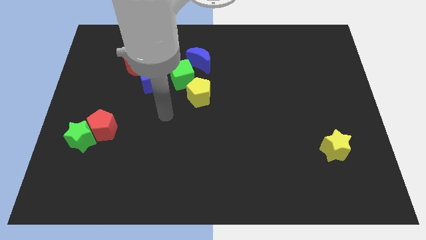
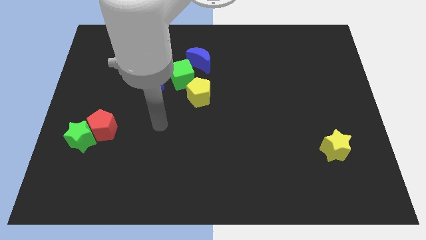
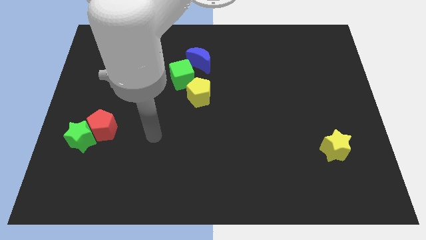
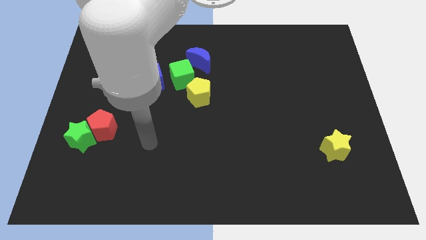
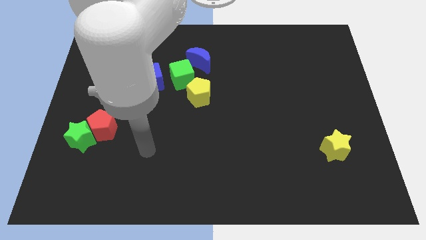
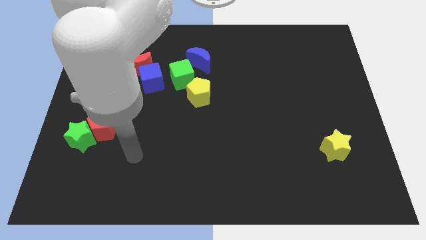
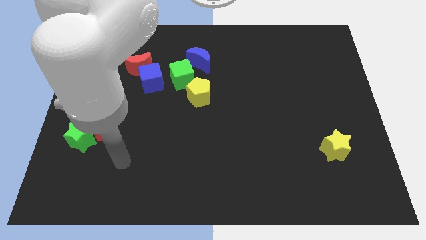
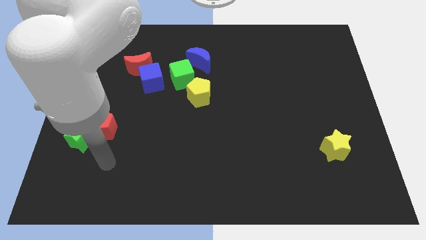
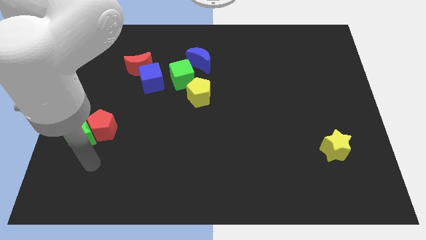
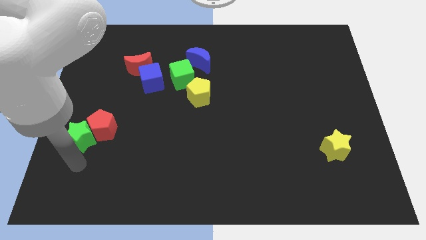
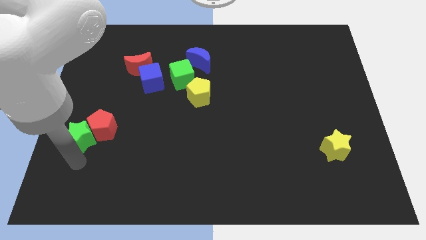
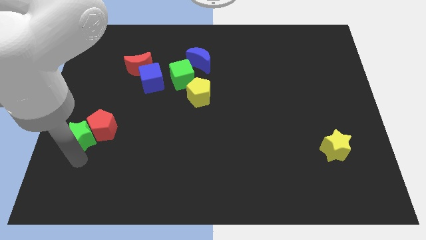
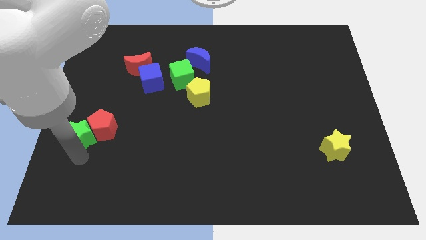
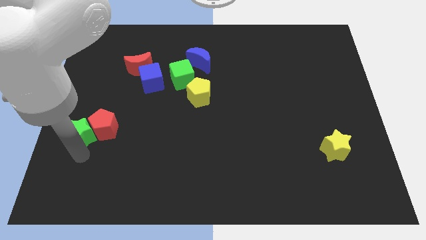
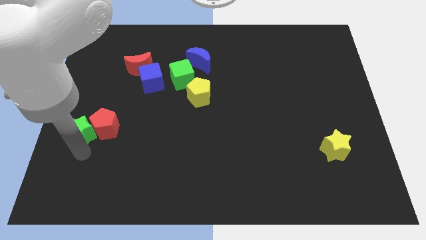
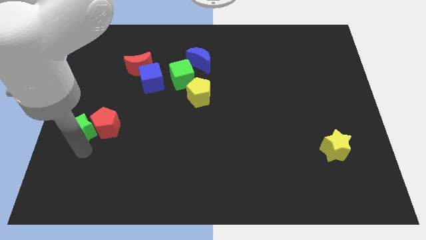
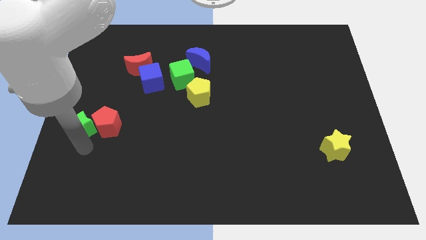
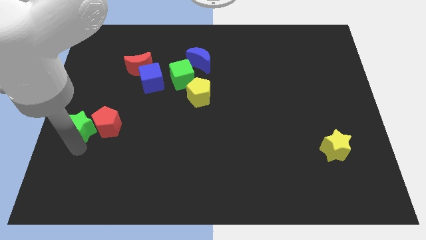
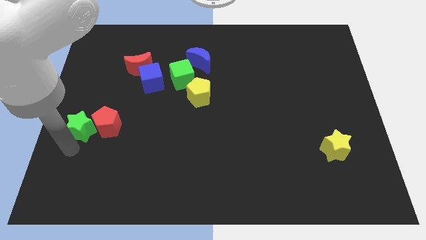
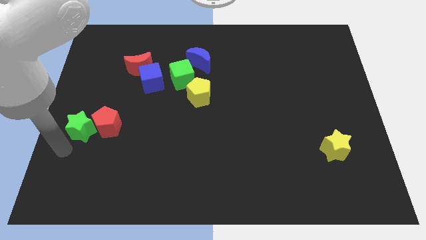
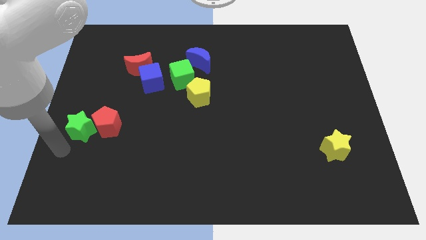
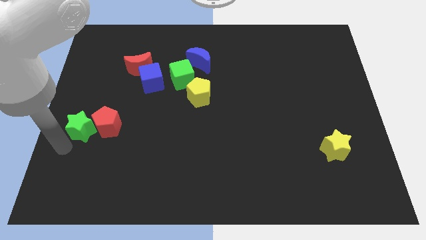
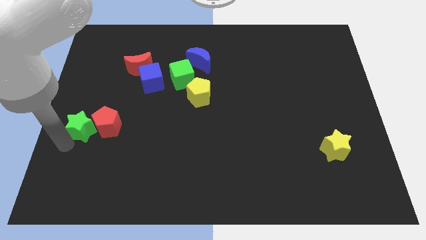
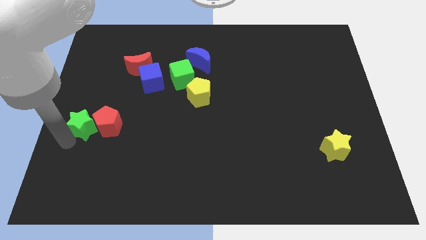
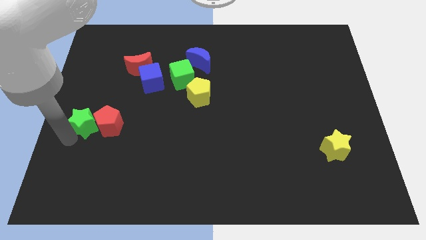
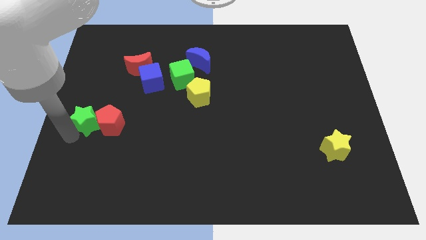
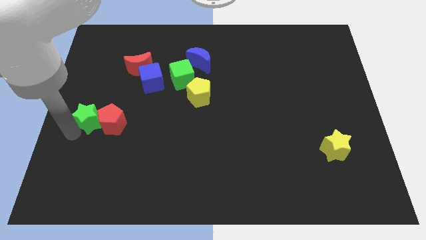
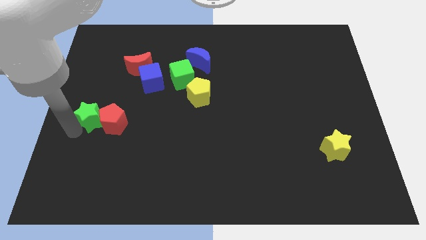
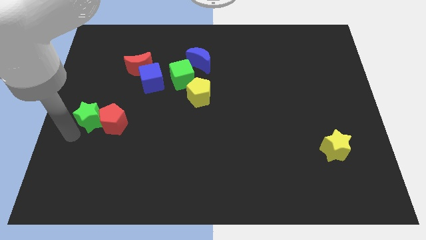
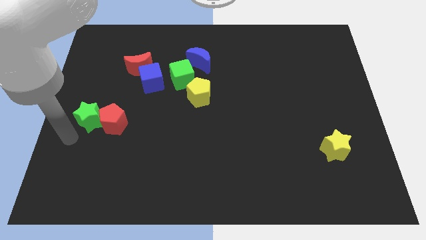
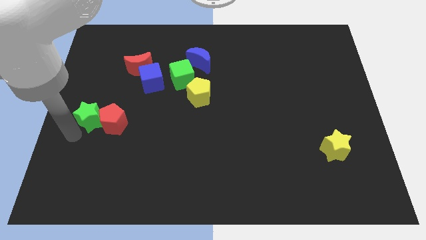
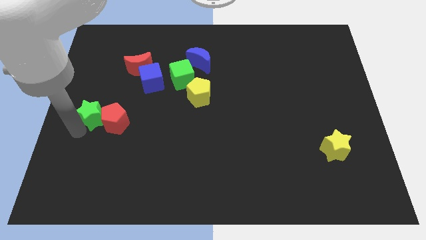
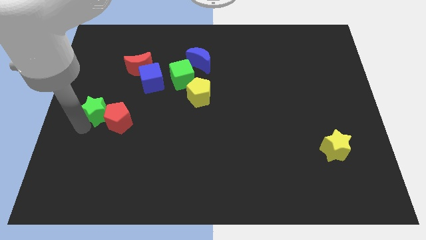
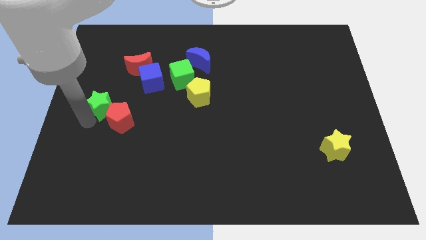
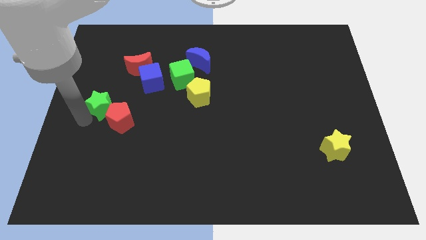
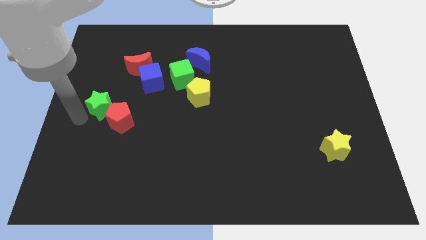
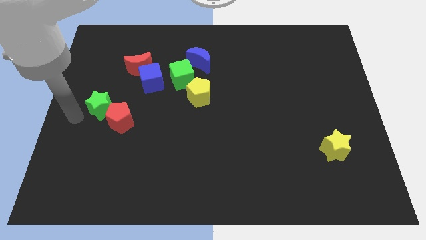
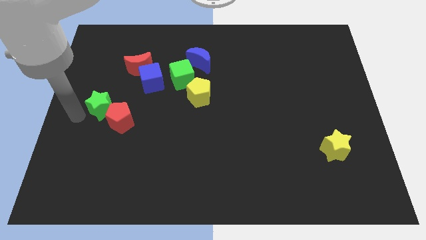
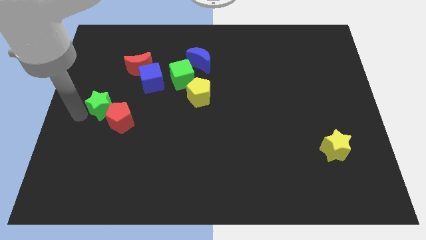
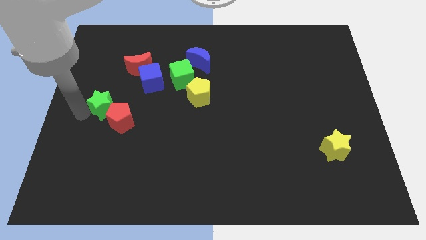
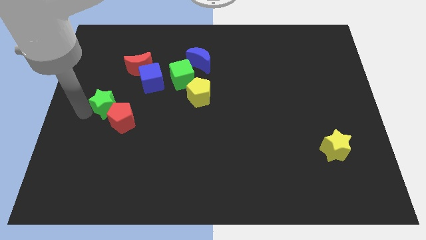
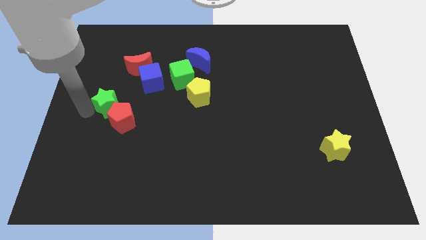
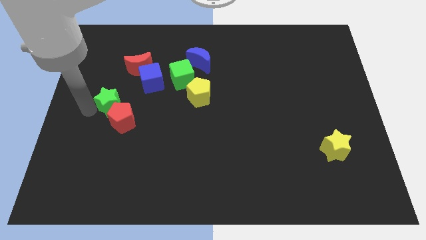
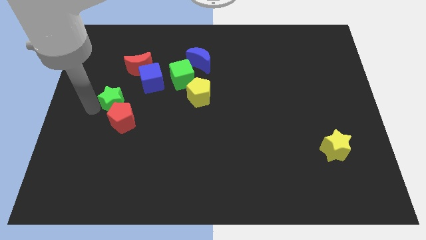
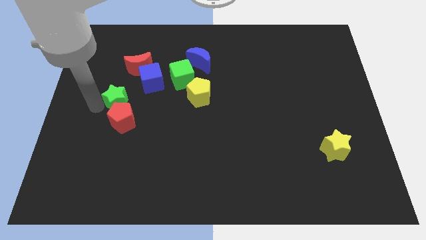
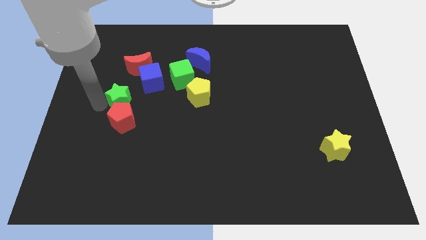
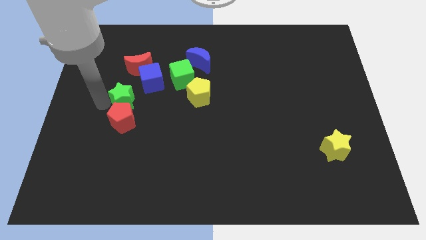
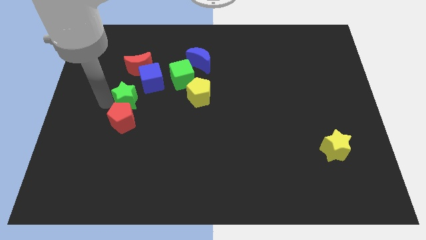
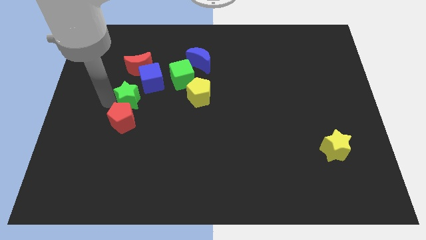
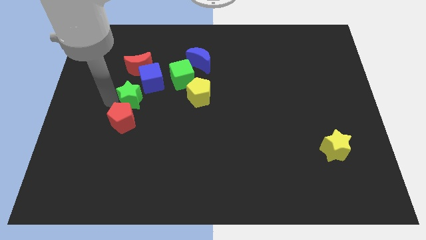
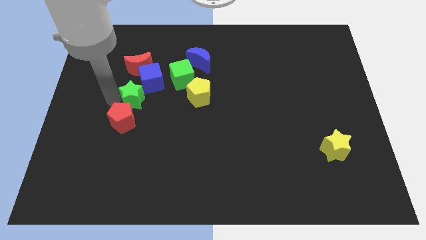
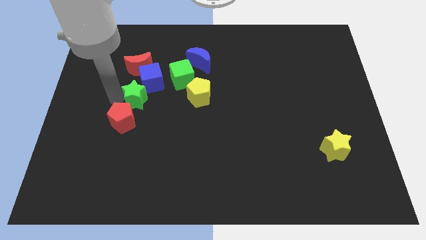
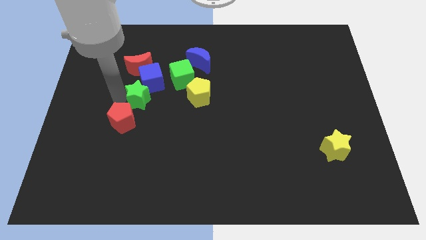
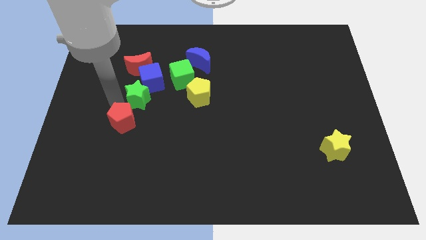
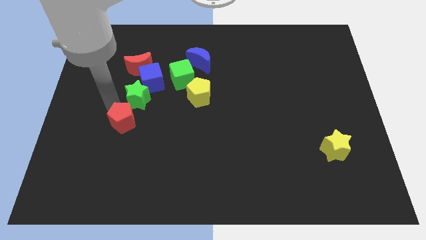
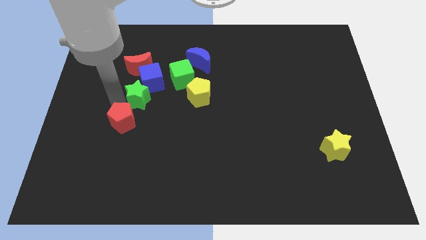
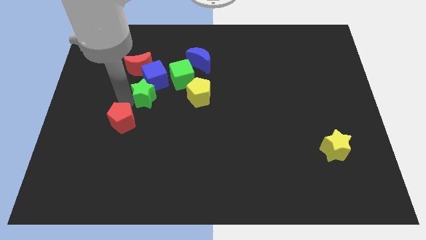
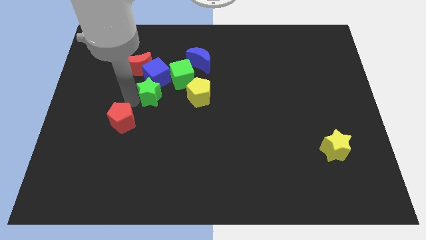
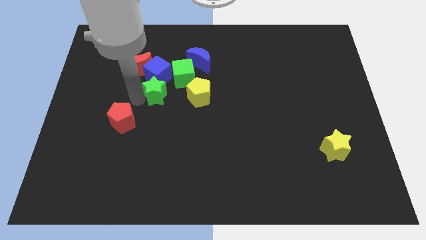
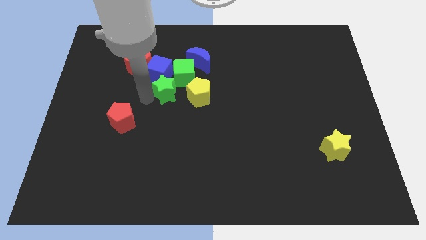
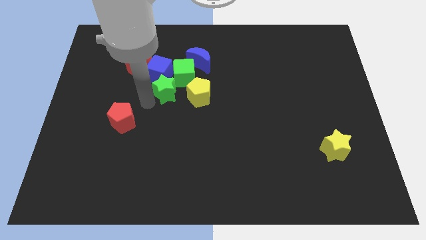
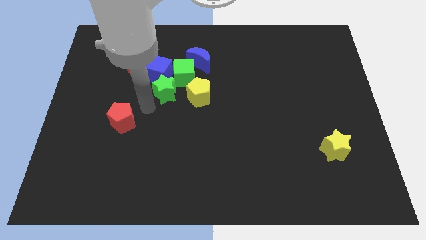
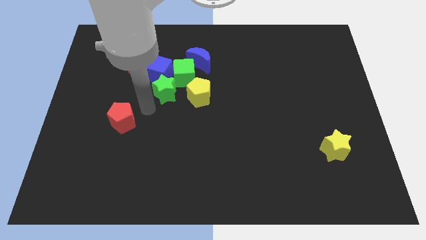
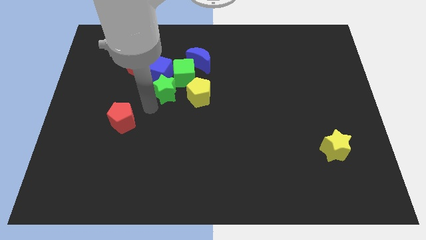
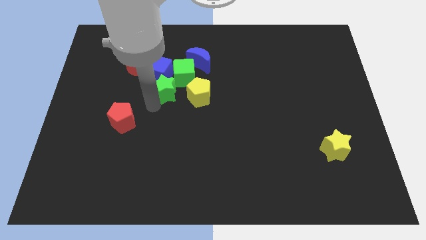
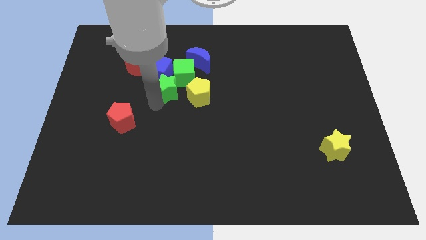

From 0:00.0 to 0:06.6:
slide the green star next to the green cube

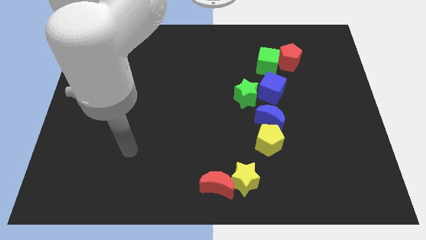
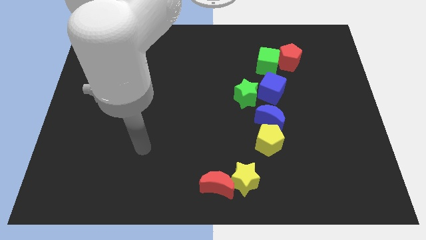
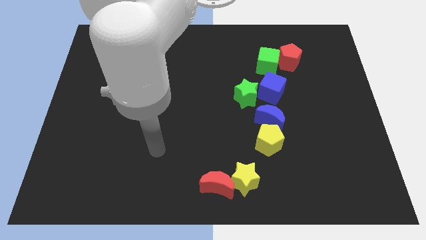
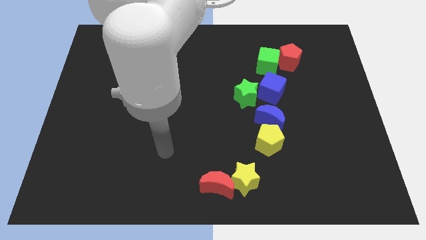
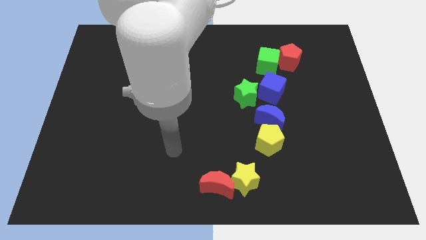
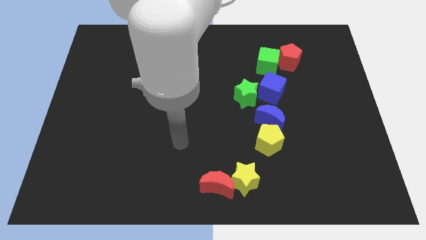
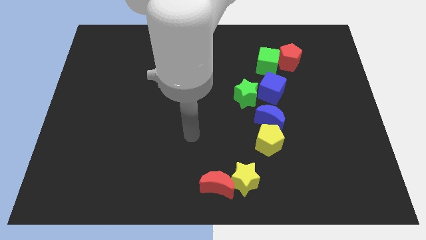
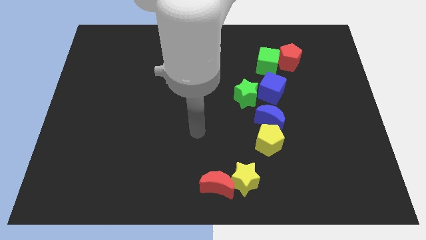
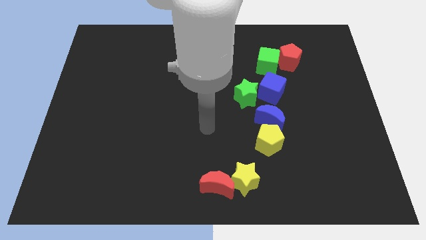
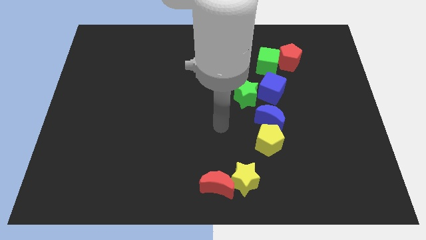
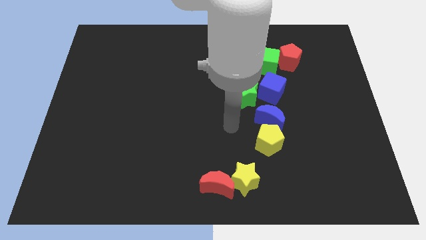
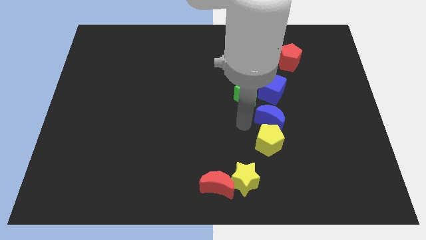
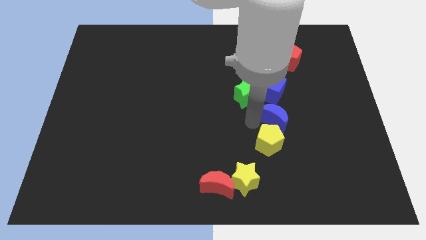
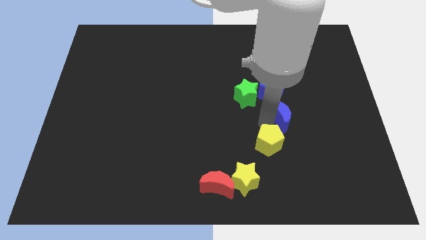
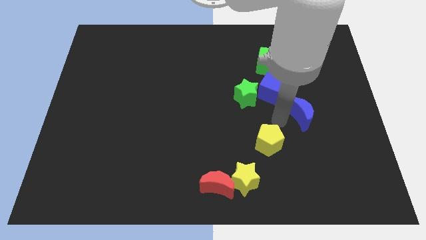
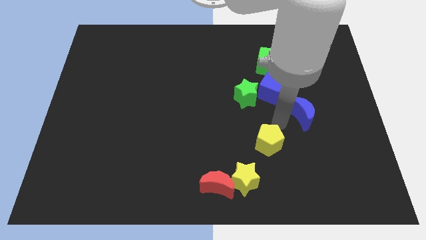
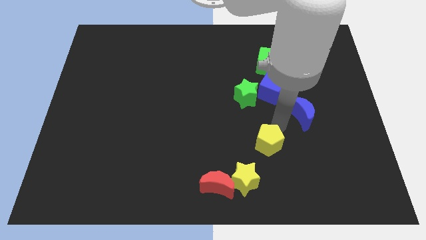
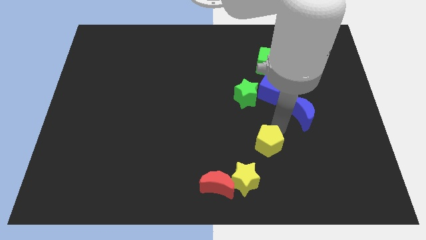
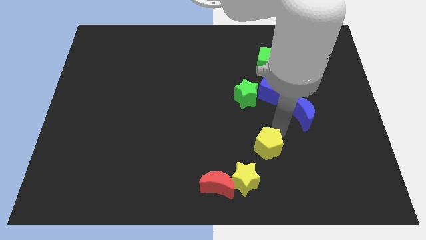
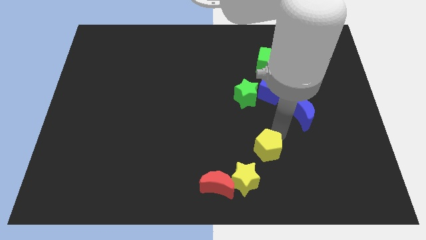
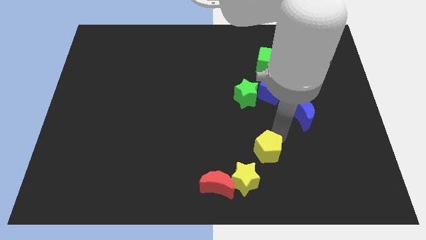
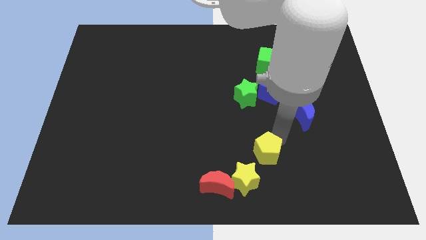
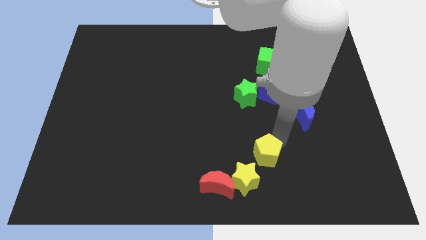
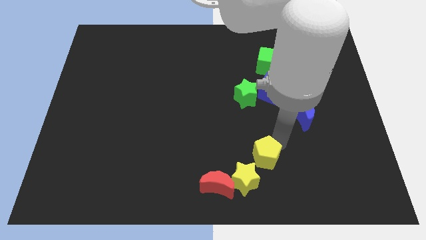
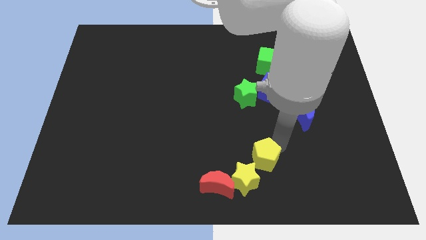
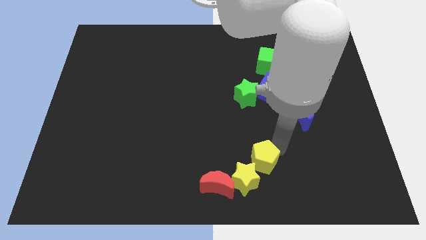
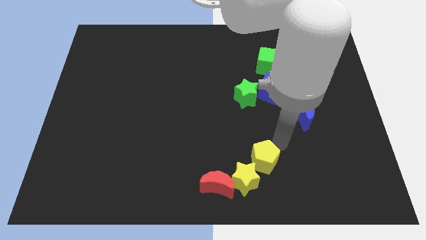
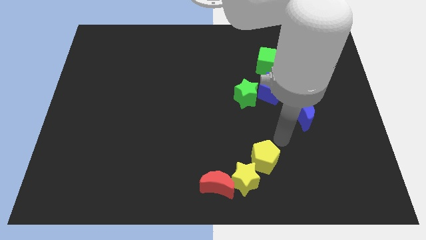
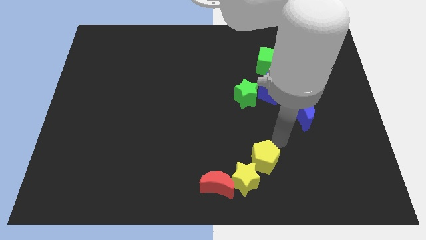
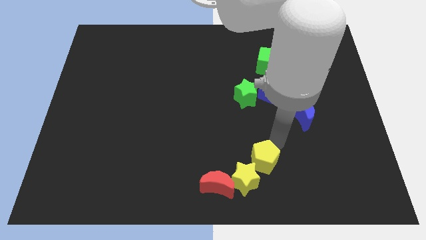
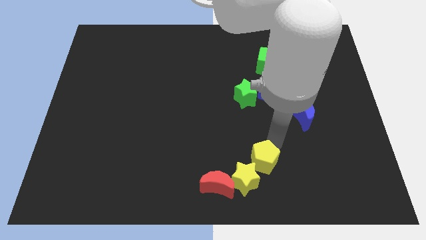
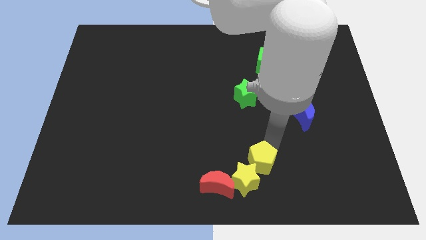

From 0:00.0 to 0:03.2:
push the yellow pentagon close to the yellow star
